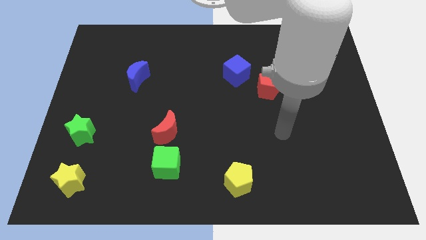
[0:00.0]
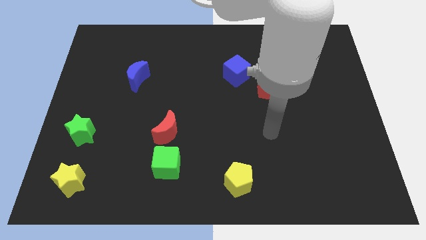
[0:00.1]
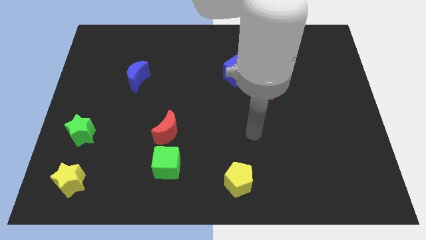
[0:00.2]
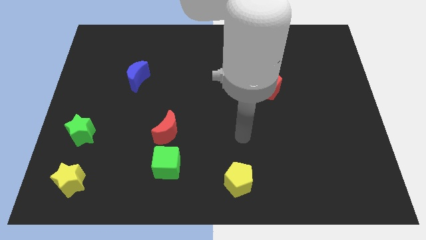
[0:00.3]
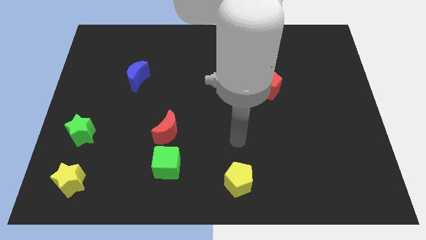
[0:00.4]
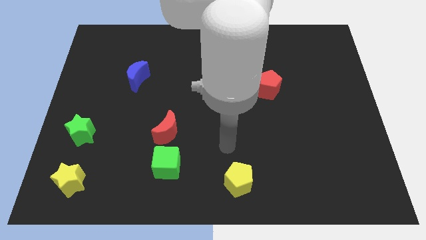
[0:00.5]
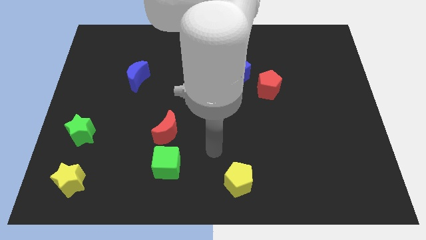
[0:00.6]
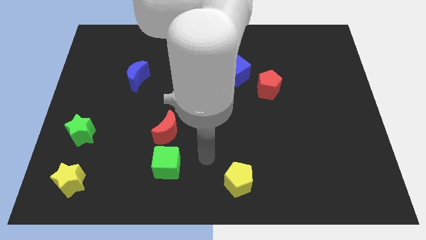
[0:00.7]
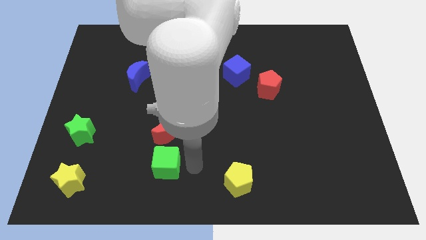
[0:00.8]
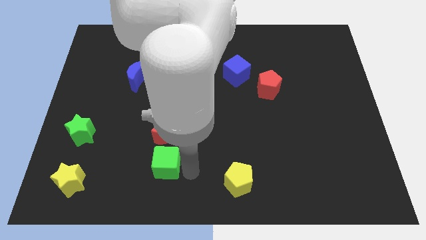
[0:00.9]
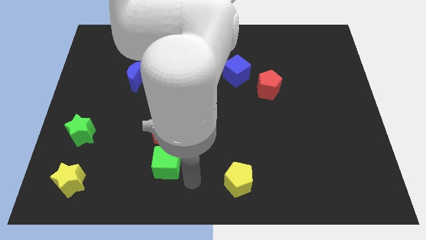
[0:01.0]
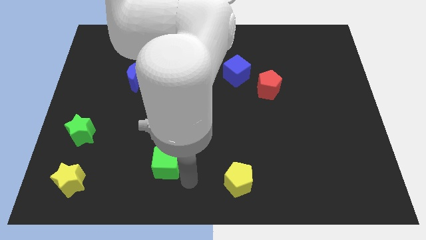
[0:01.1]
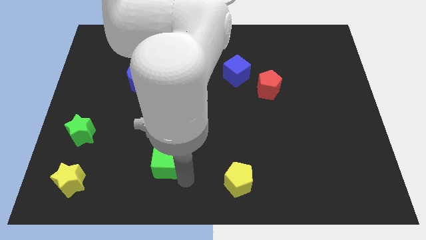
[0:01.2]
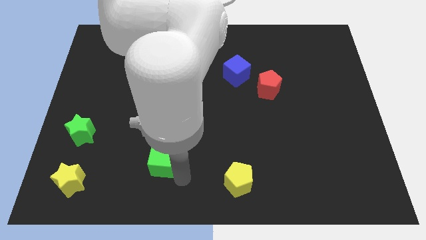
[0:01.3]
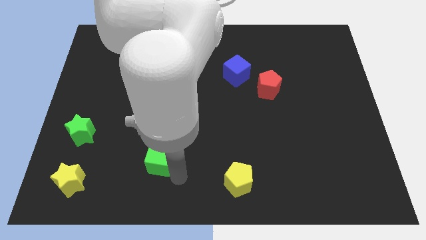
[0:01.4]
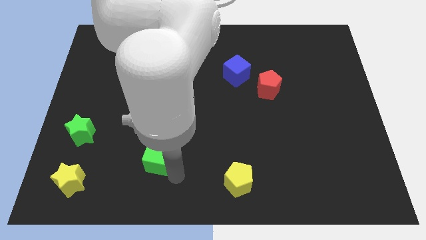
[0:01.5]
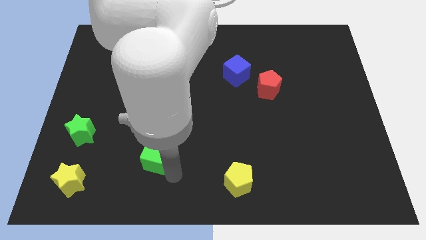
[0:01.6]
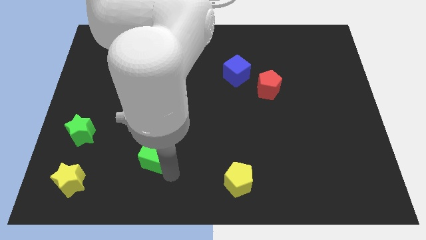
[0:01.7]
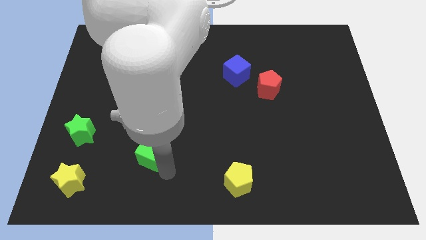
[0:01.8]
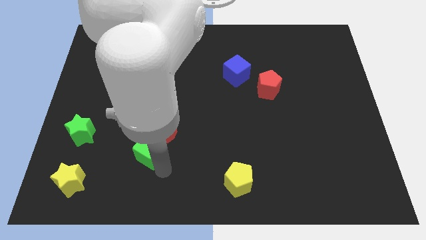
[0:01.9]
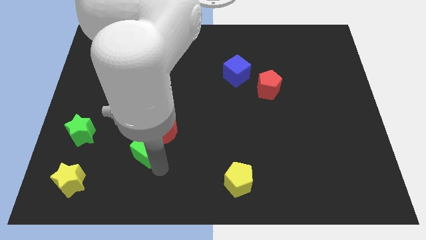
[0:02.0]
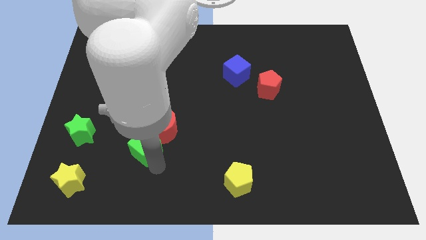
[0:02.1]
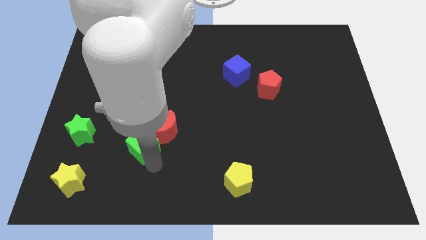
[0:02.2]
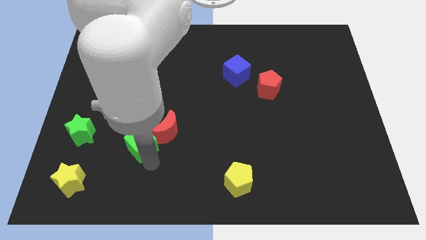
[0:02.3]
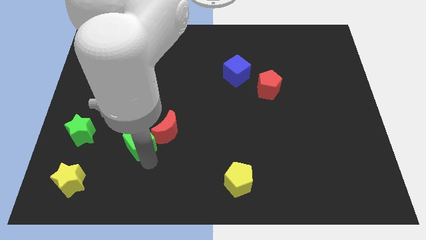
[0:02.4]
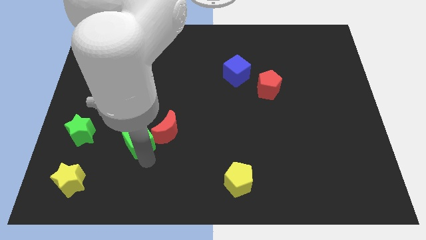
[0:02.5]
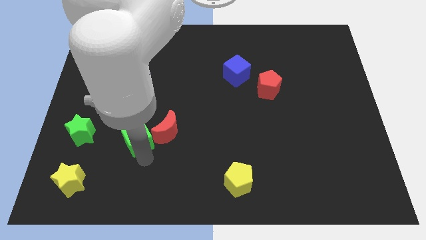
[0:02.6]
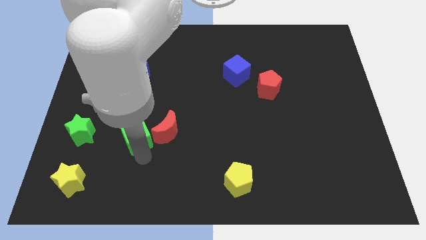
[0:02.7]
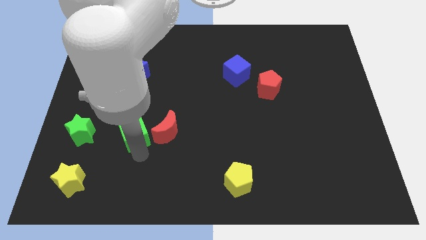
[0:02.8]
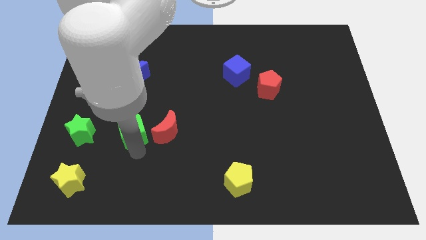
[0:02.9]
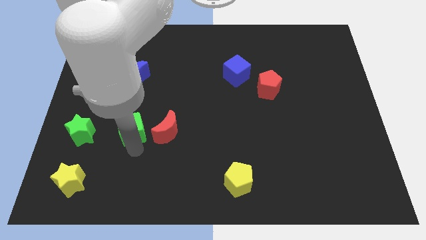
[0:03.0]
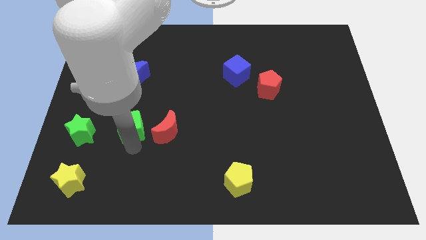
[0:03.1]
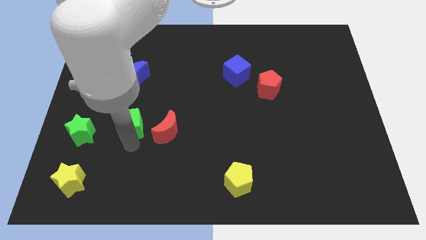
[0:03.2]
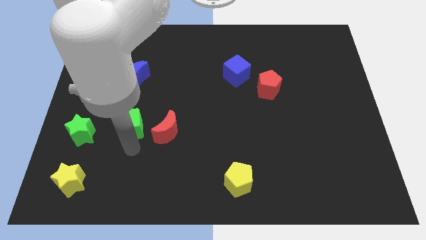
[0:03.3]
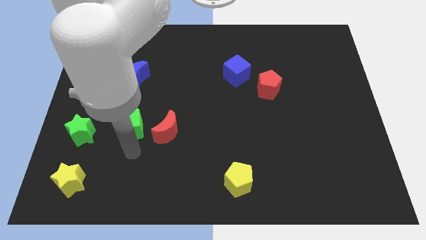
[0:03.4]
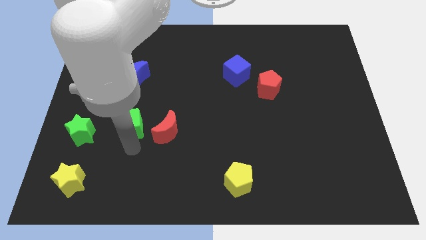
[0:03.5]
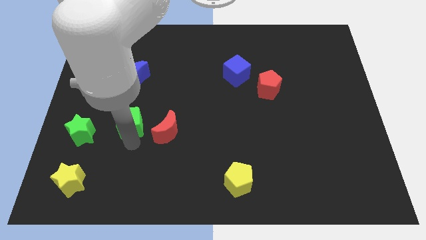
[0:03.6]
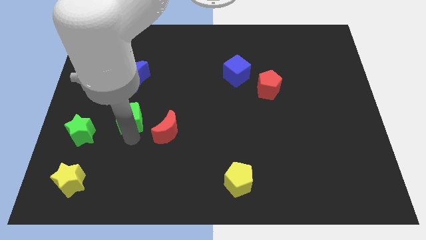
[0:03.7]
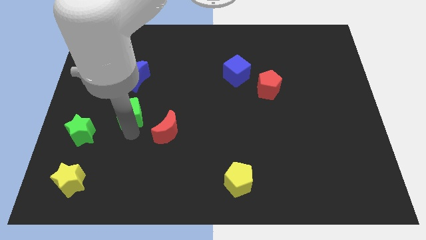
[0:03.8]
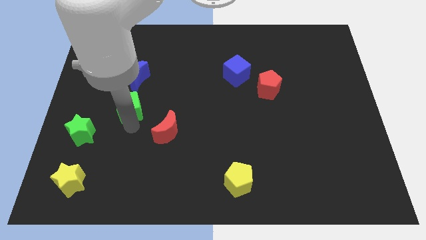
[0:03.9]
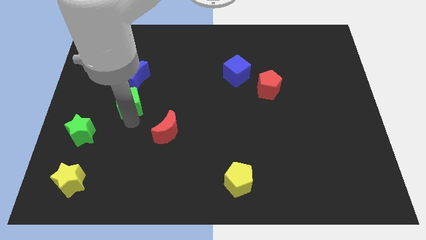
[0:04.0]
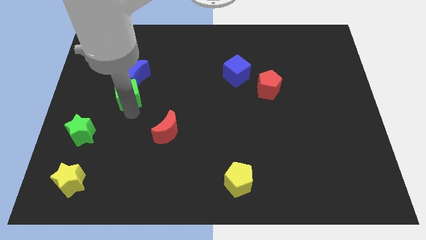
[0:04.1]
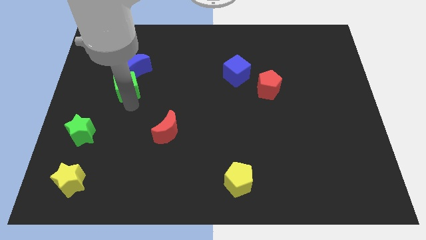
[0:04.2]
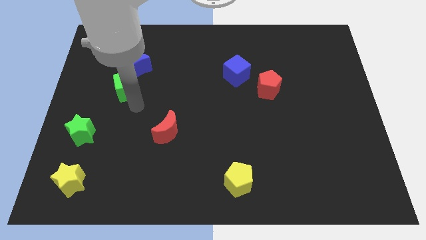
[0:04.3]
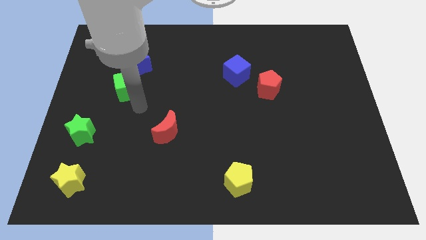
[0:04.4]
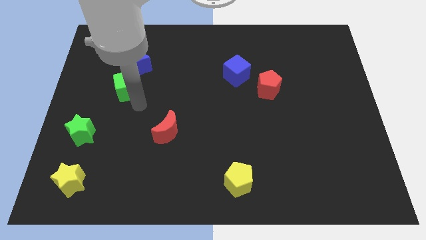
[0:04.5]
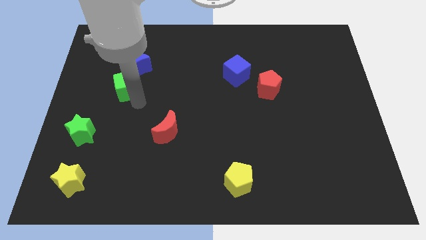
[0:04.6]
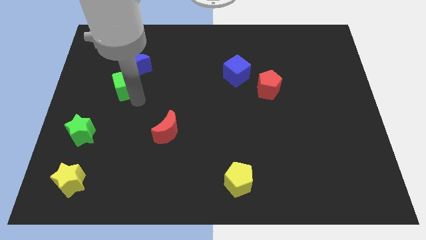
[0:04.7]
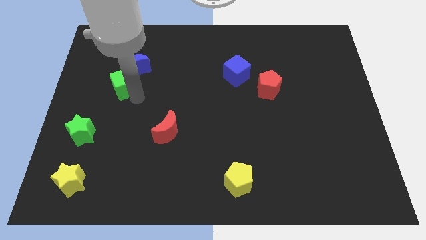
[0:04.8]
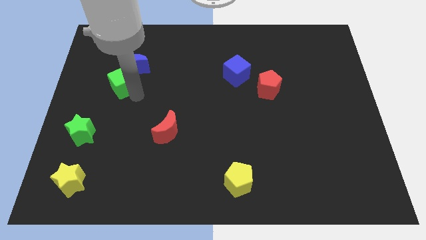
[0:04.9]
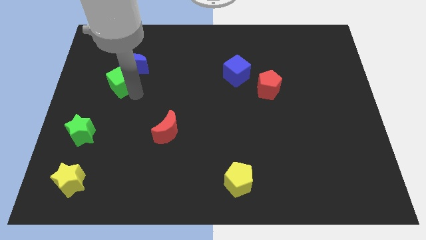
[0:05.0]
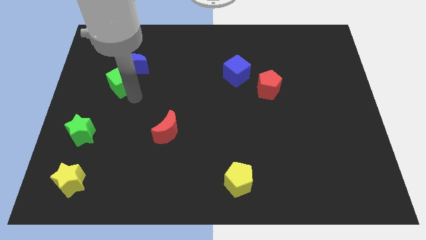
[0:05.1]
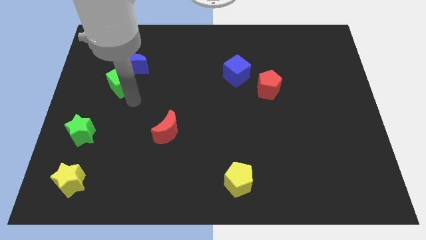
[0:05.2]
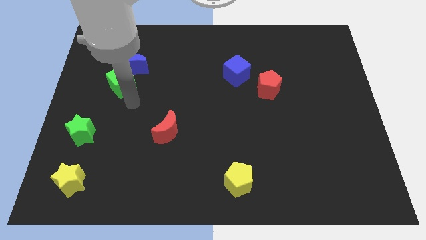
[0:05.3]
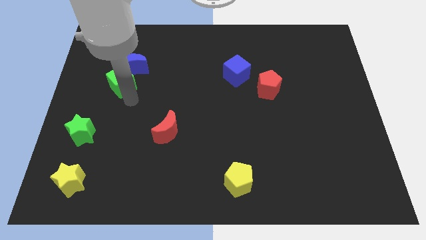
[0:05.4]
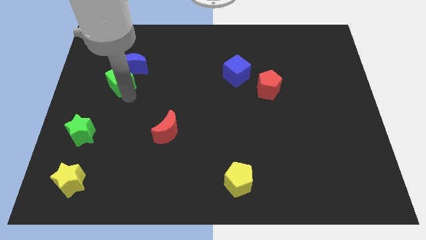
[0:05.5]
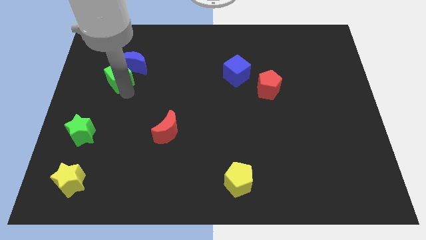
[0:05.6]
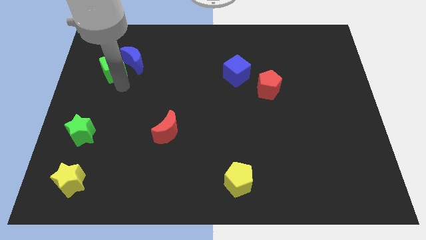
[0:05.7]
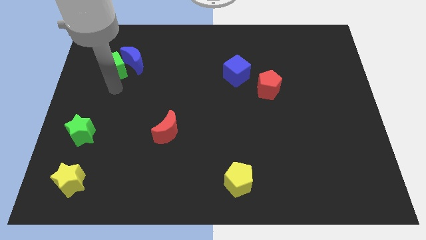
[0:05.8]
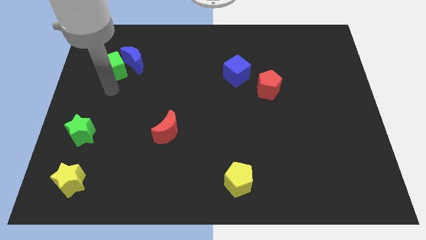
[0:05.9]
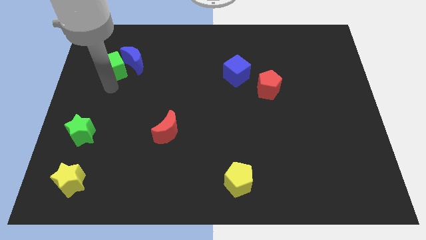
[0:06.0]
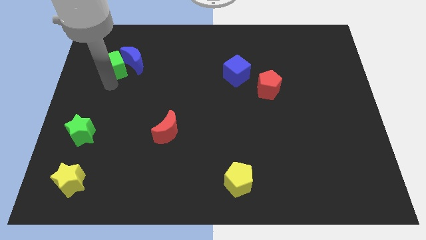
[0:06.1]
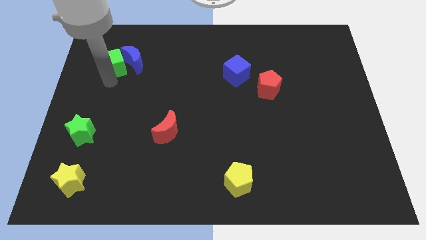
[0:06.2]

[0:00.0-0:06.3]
put the green cube diagonally up and to the left of the blue moon

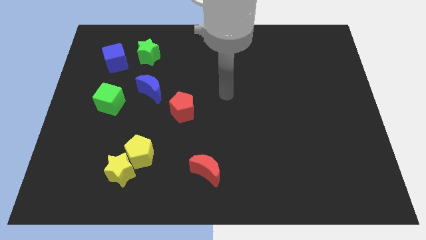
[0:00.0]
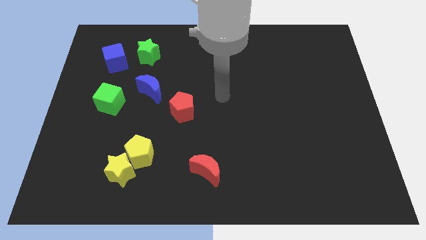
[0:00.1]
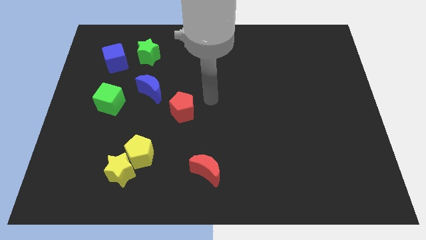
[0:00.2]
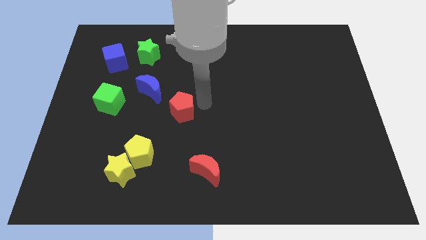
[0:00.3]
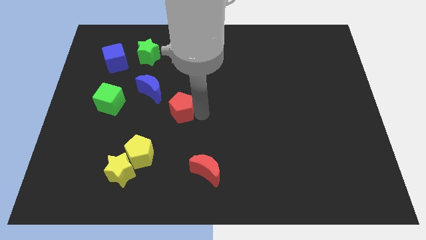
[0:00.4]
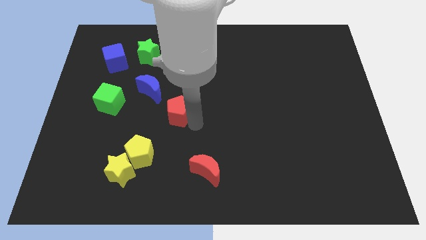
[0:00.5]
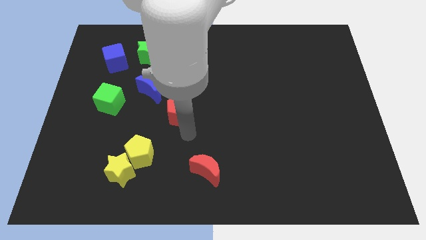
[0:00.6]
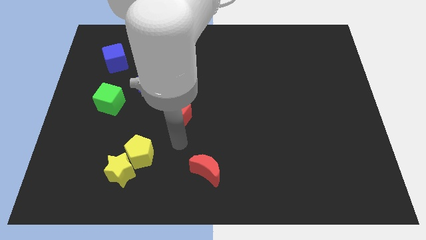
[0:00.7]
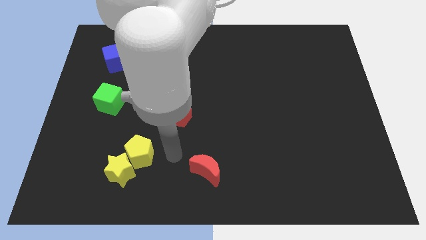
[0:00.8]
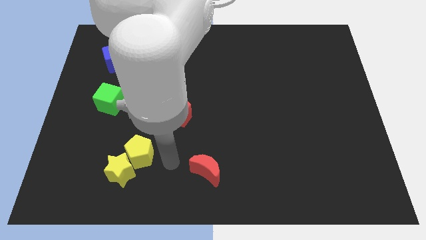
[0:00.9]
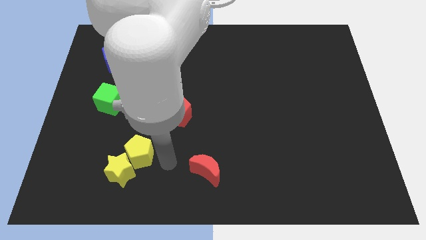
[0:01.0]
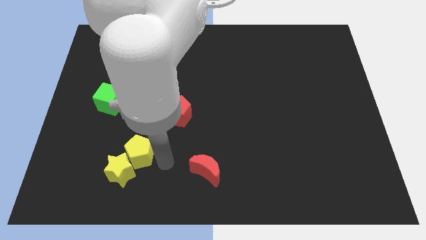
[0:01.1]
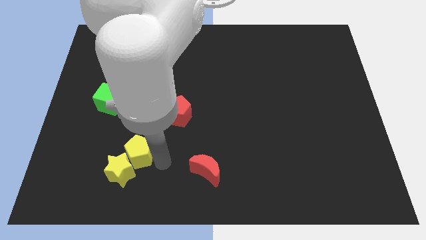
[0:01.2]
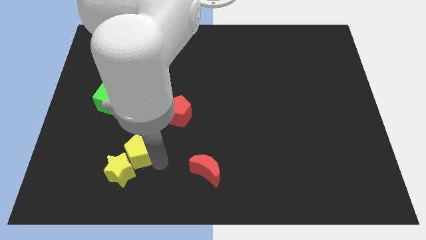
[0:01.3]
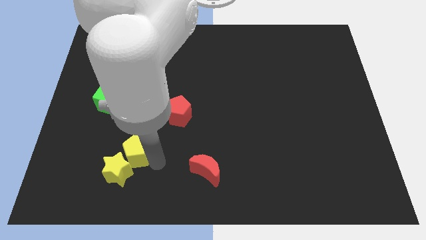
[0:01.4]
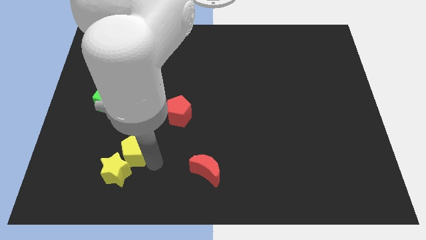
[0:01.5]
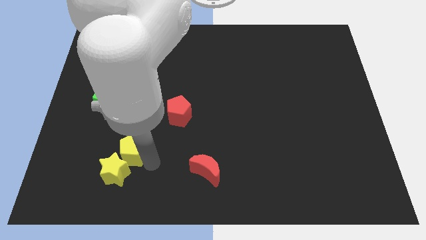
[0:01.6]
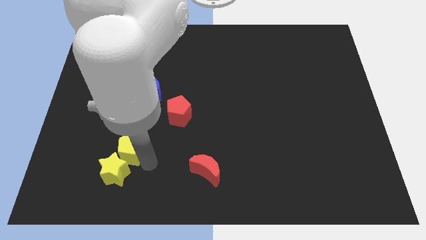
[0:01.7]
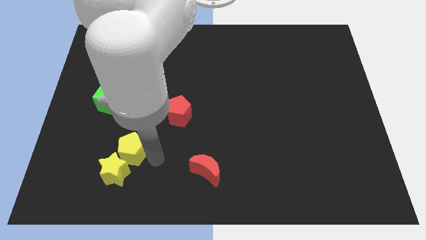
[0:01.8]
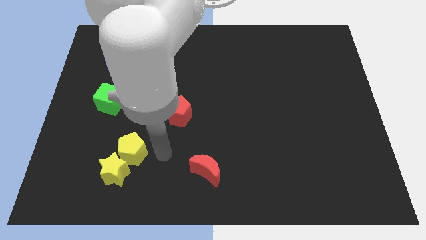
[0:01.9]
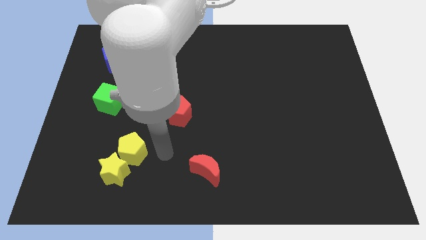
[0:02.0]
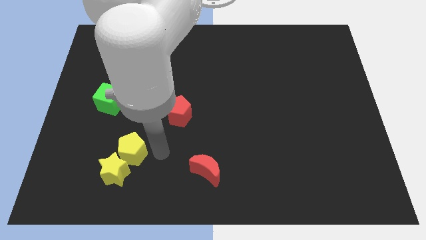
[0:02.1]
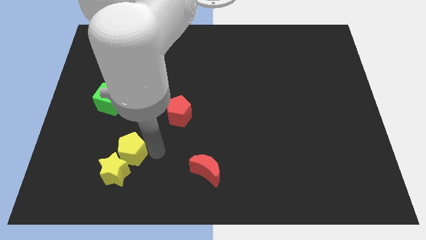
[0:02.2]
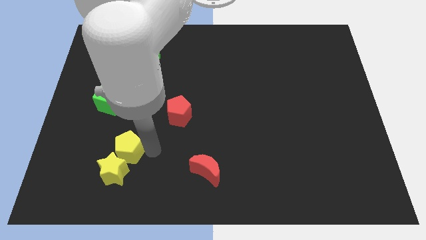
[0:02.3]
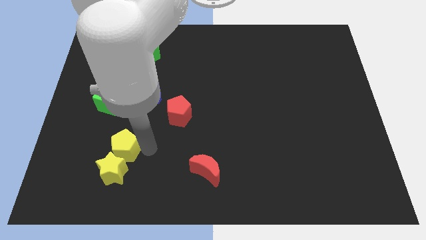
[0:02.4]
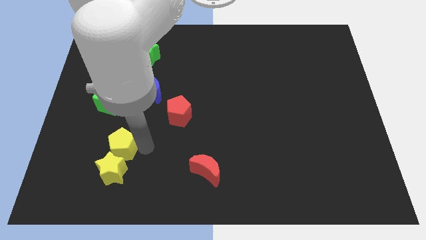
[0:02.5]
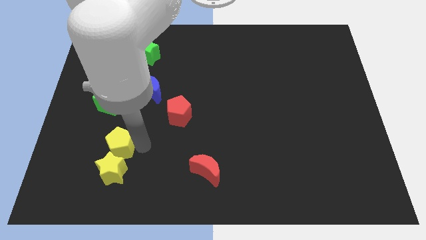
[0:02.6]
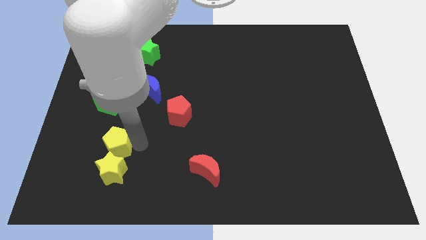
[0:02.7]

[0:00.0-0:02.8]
push the yellow pentagon to the top left of the yellow star
